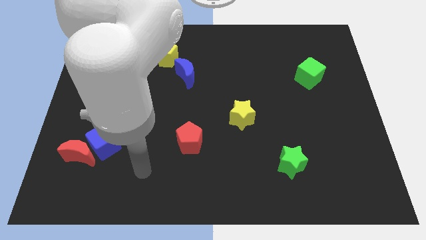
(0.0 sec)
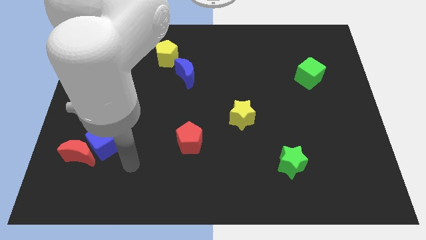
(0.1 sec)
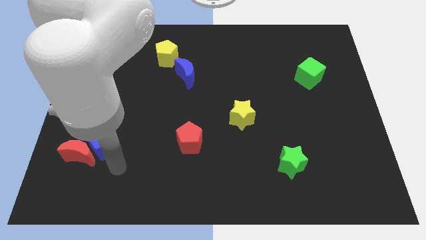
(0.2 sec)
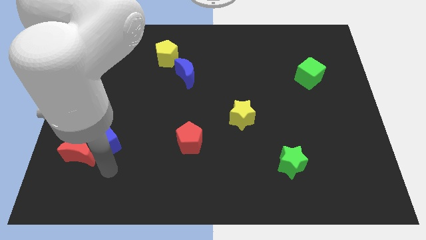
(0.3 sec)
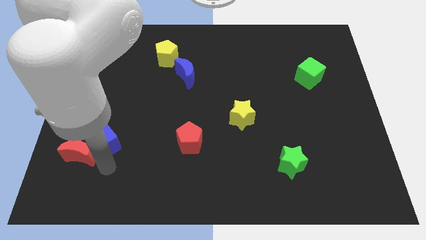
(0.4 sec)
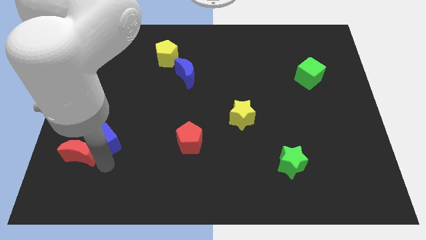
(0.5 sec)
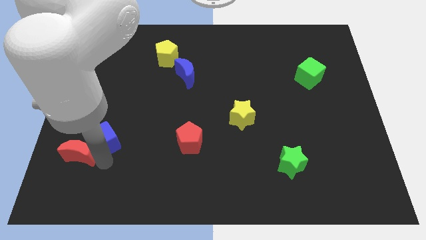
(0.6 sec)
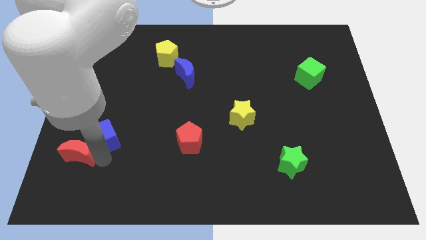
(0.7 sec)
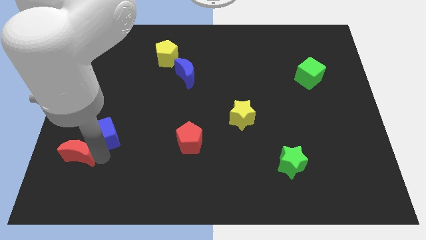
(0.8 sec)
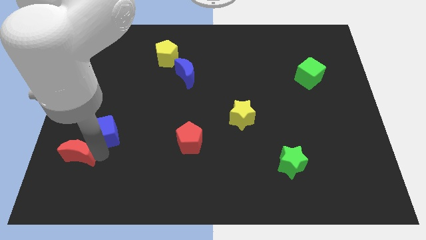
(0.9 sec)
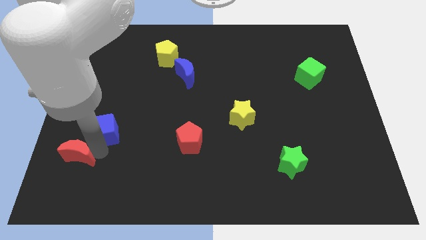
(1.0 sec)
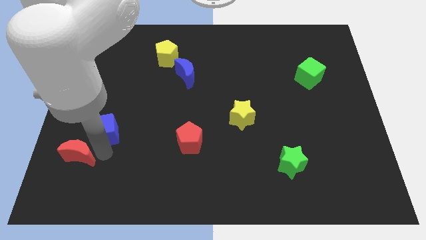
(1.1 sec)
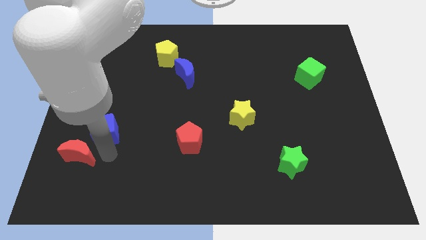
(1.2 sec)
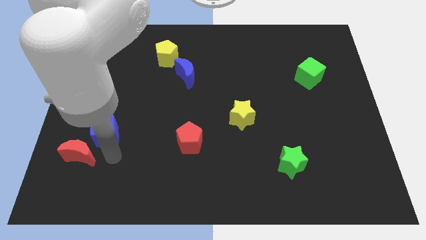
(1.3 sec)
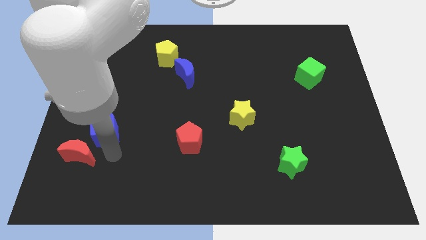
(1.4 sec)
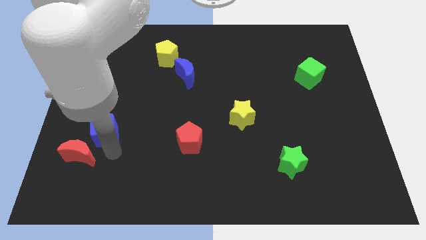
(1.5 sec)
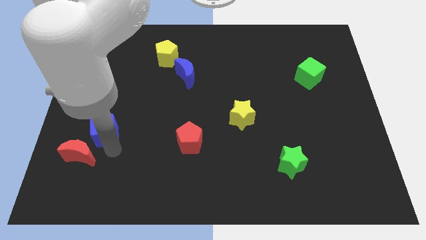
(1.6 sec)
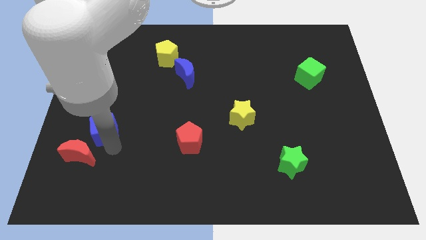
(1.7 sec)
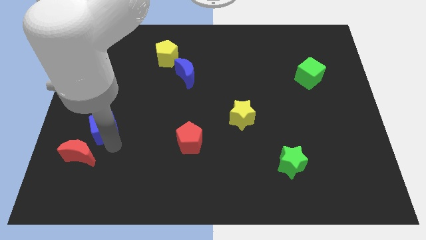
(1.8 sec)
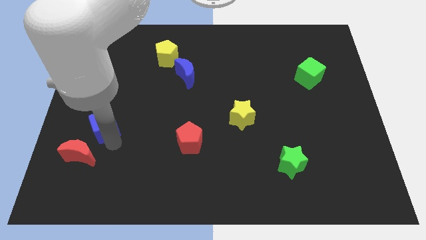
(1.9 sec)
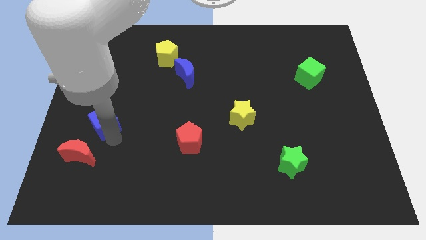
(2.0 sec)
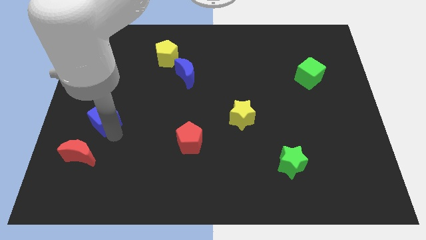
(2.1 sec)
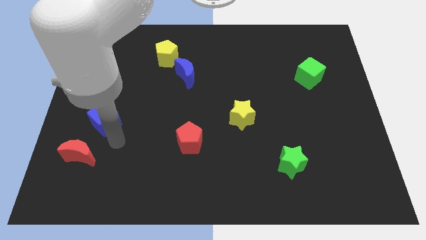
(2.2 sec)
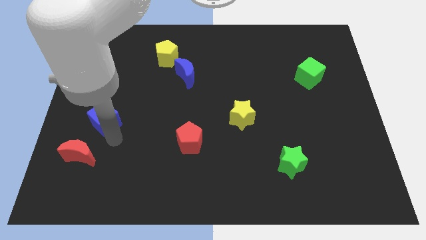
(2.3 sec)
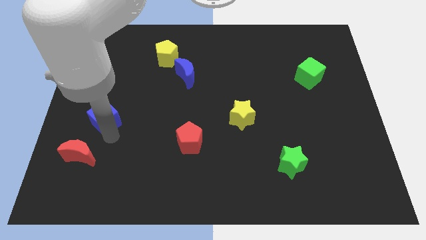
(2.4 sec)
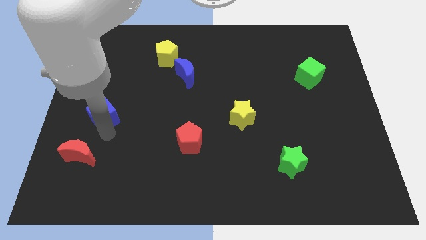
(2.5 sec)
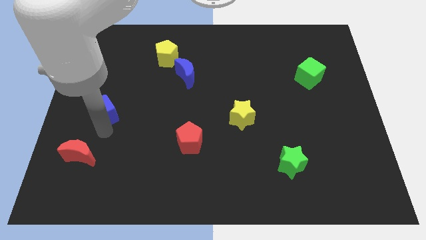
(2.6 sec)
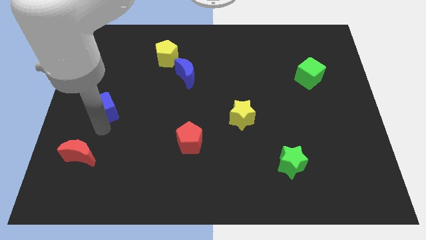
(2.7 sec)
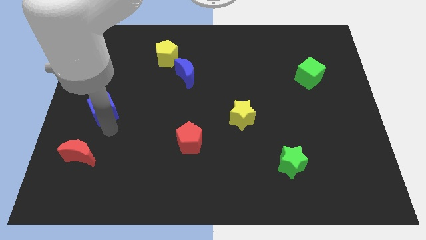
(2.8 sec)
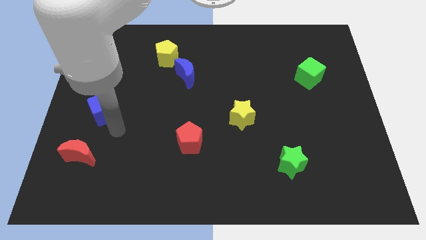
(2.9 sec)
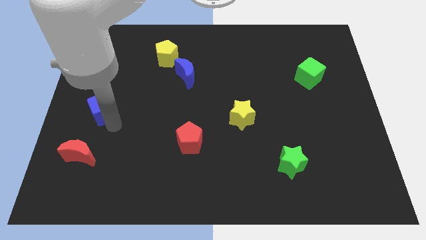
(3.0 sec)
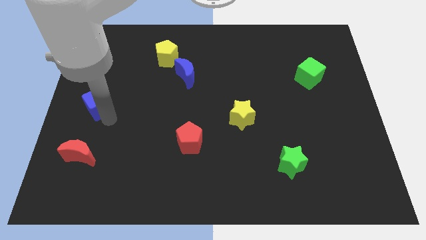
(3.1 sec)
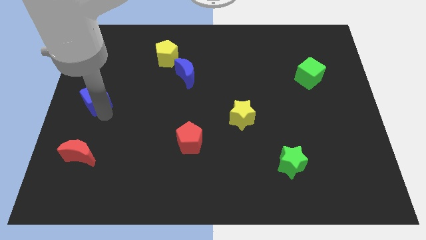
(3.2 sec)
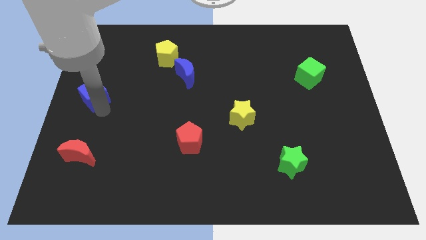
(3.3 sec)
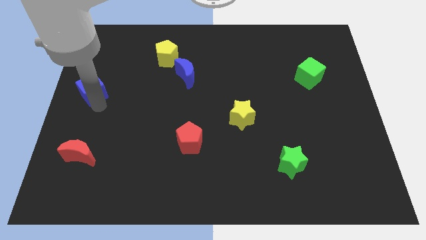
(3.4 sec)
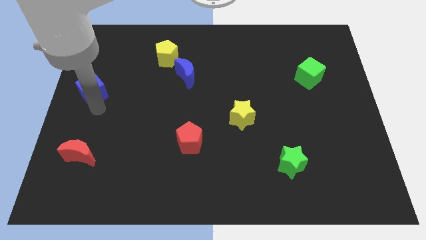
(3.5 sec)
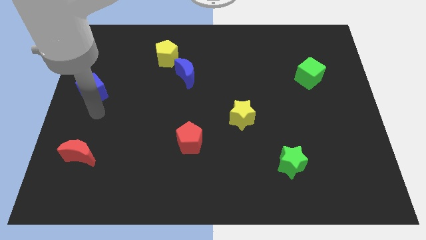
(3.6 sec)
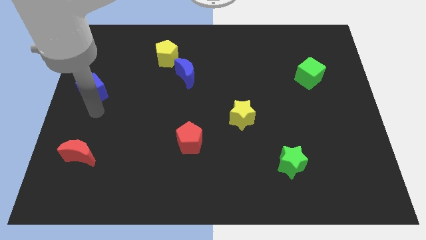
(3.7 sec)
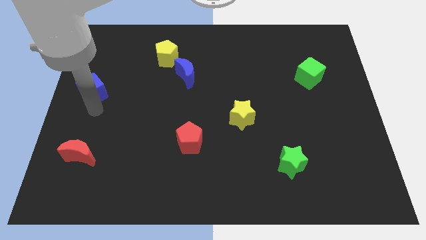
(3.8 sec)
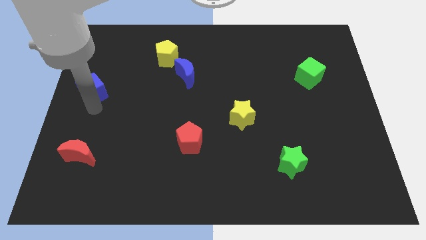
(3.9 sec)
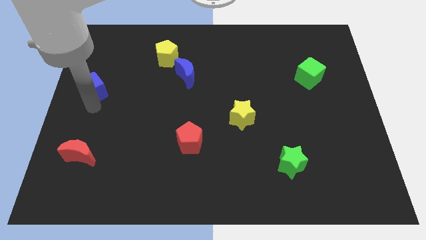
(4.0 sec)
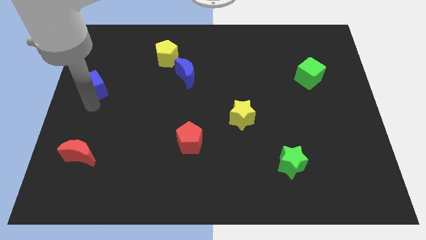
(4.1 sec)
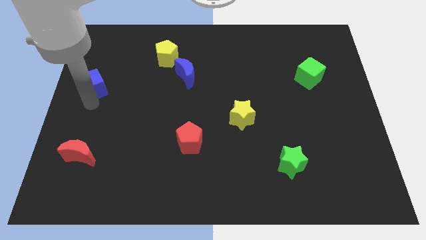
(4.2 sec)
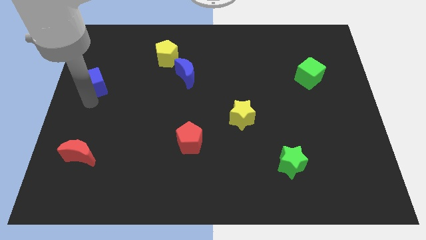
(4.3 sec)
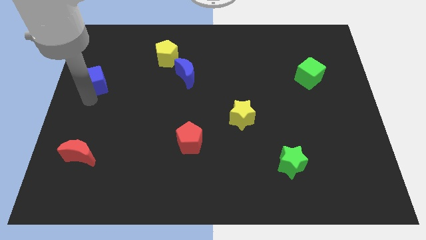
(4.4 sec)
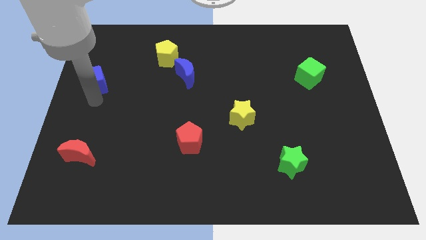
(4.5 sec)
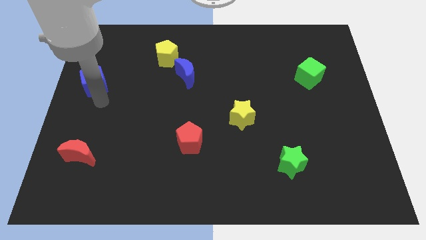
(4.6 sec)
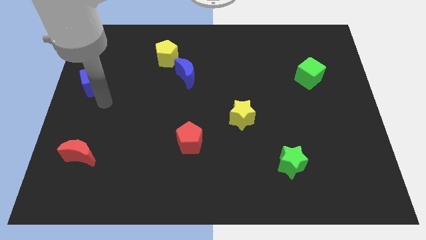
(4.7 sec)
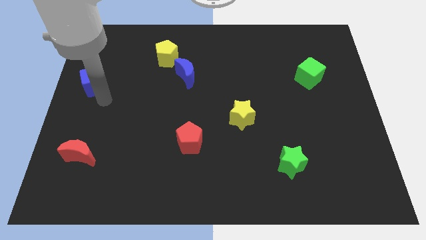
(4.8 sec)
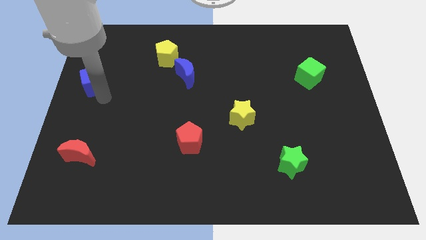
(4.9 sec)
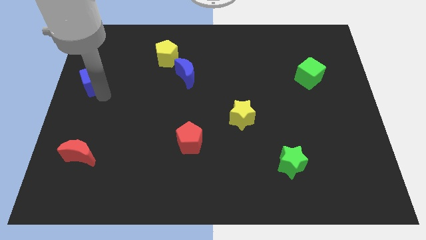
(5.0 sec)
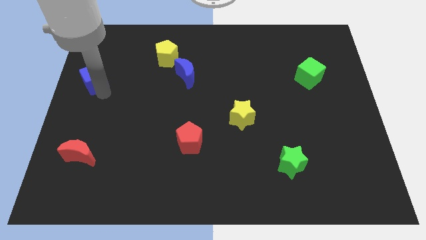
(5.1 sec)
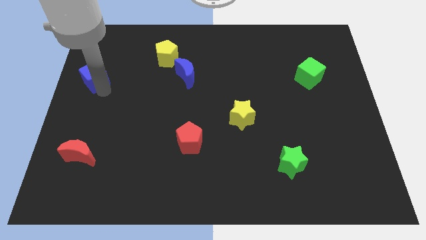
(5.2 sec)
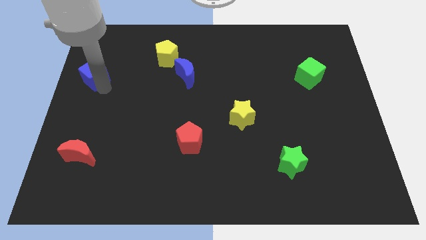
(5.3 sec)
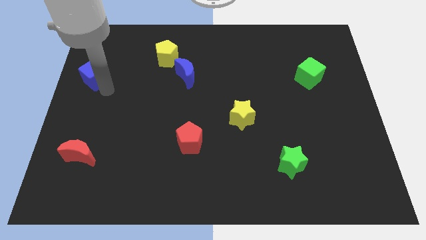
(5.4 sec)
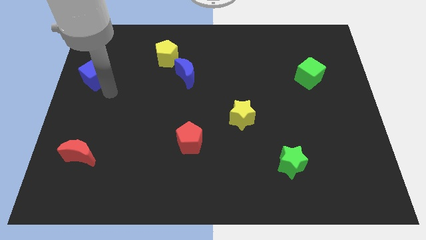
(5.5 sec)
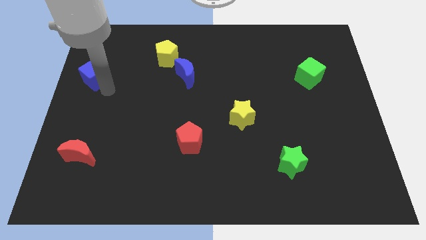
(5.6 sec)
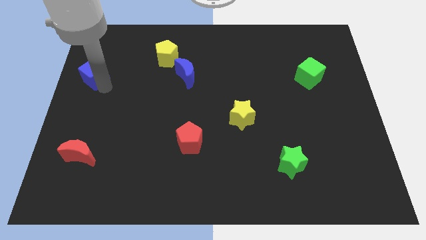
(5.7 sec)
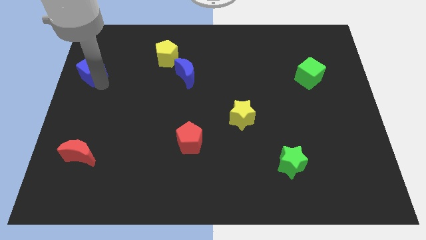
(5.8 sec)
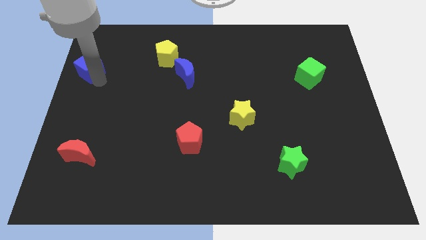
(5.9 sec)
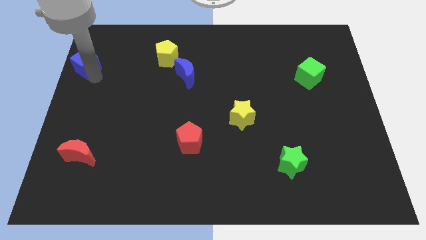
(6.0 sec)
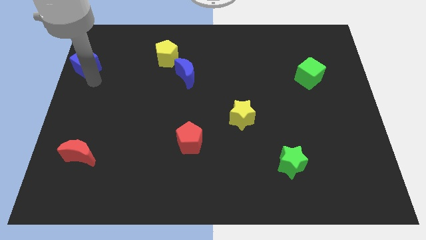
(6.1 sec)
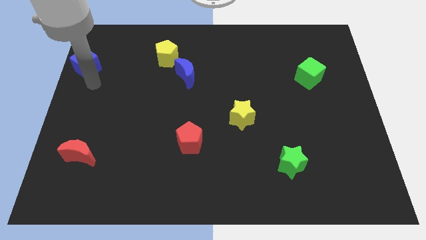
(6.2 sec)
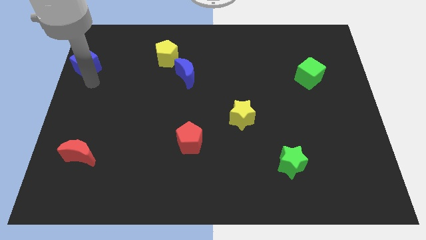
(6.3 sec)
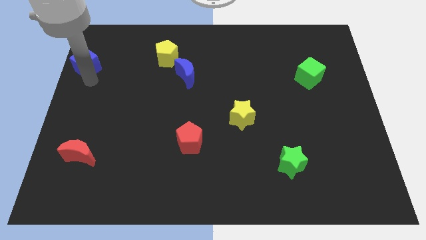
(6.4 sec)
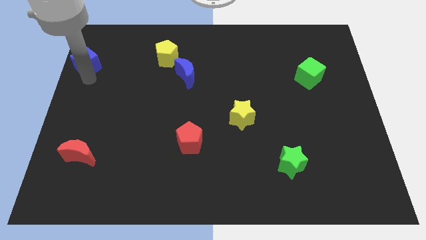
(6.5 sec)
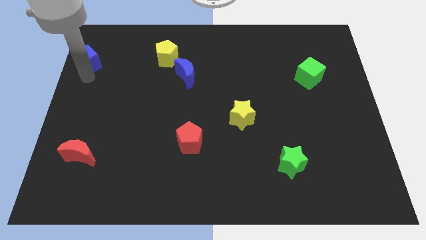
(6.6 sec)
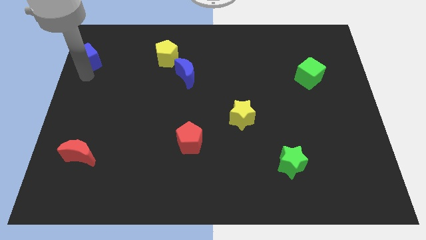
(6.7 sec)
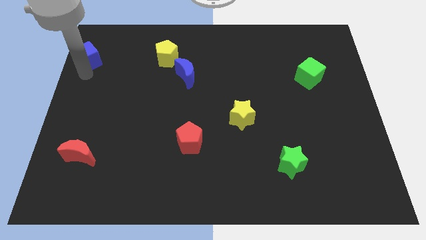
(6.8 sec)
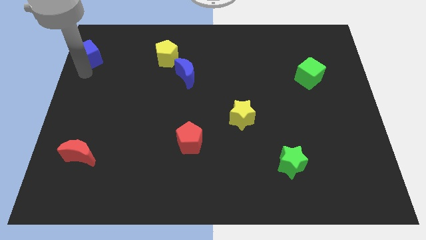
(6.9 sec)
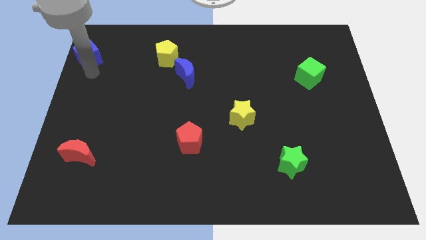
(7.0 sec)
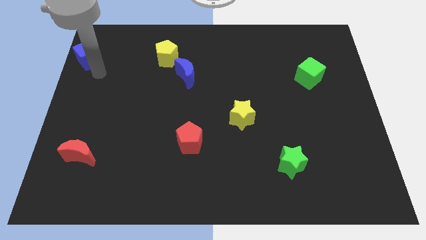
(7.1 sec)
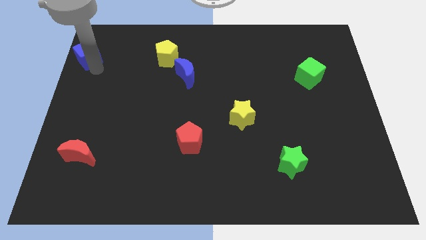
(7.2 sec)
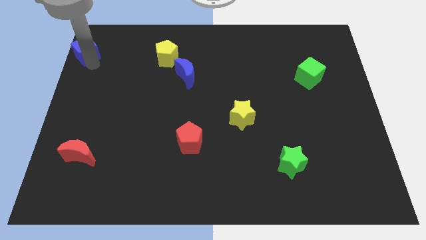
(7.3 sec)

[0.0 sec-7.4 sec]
put the blue cube to the top left
